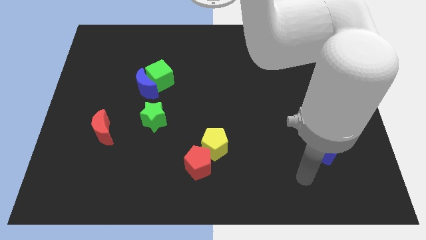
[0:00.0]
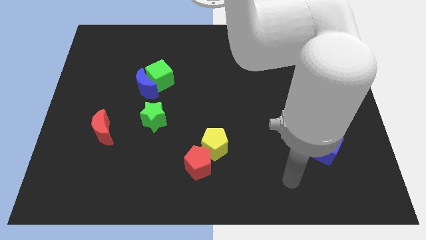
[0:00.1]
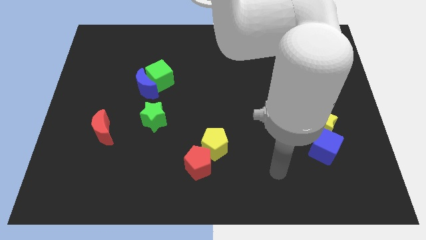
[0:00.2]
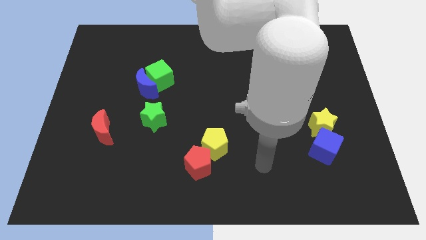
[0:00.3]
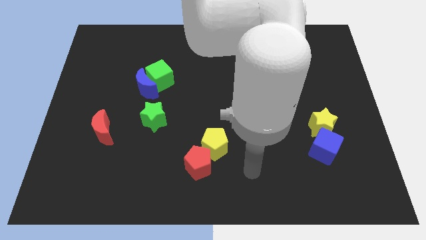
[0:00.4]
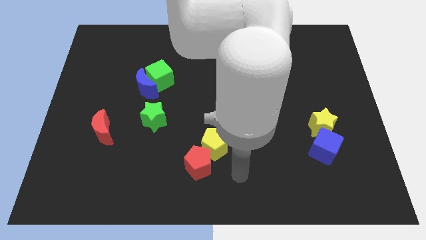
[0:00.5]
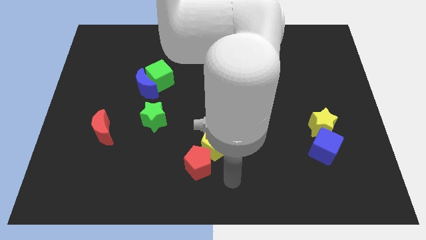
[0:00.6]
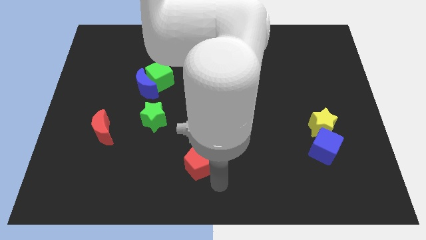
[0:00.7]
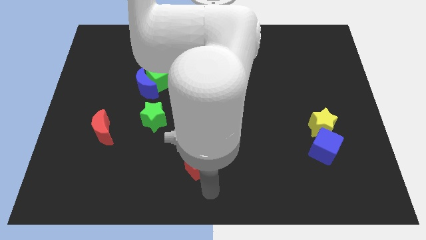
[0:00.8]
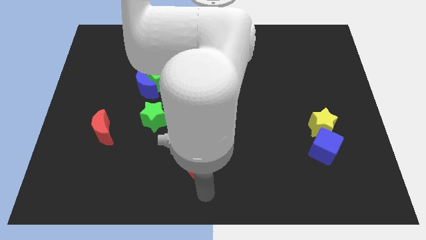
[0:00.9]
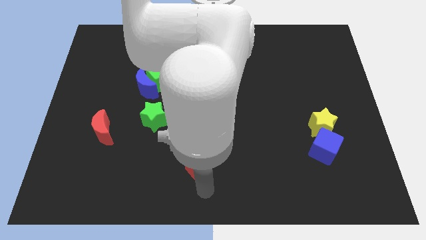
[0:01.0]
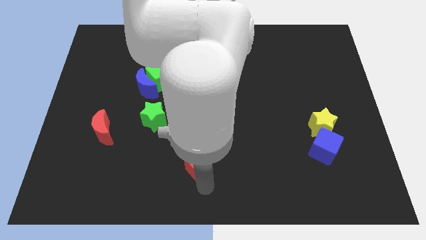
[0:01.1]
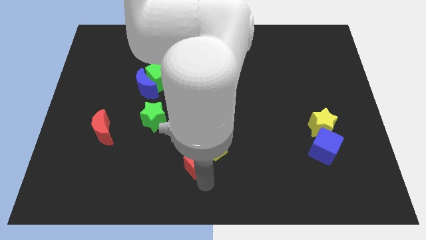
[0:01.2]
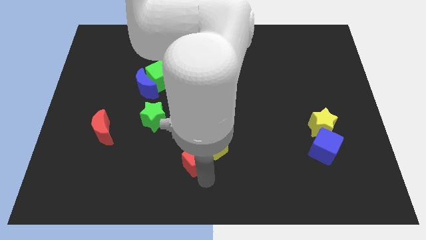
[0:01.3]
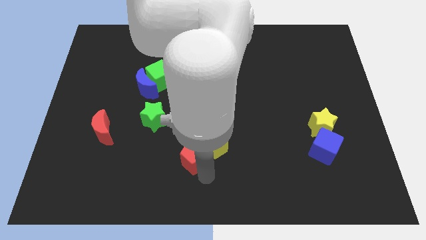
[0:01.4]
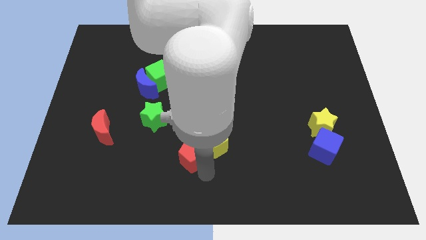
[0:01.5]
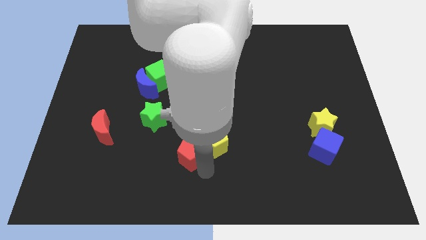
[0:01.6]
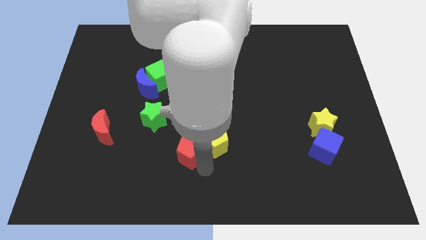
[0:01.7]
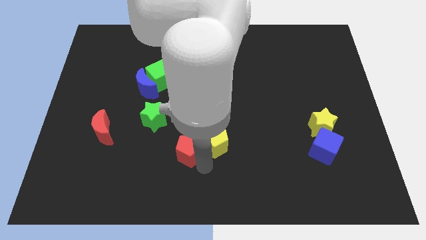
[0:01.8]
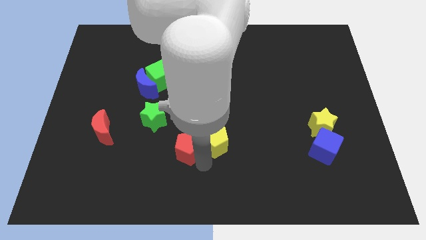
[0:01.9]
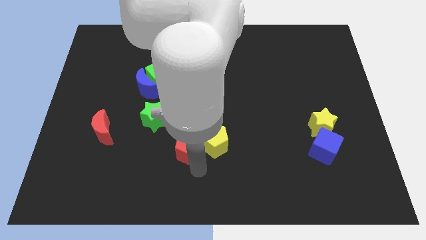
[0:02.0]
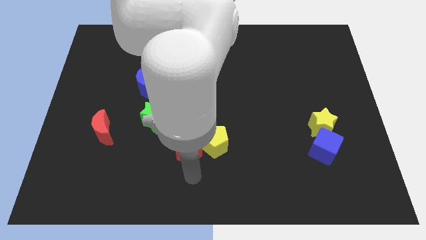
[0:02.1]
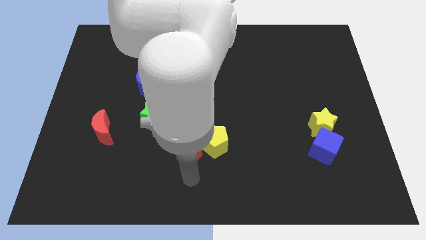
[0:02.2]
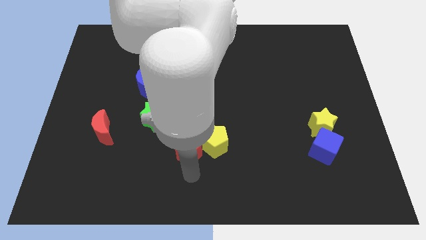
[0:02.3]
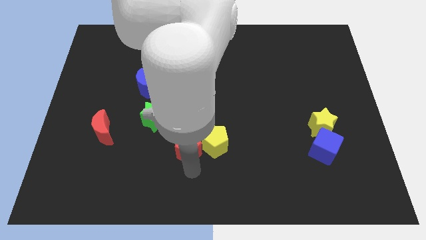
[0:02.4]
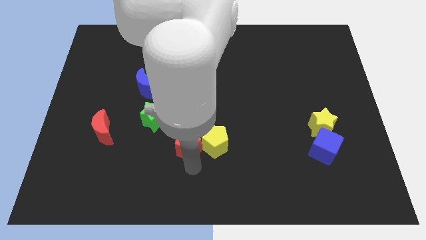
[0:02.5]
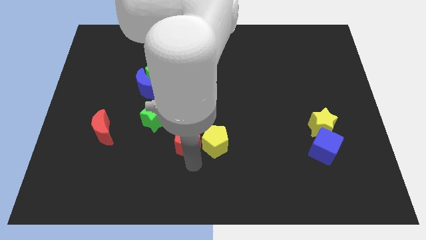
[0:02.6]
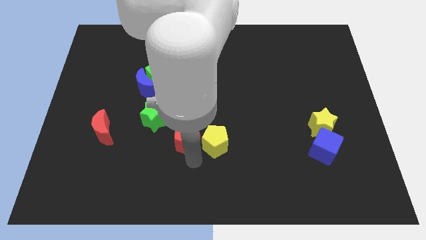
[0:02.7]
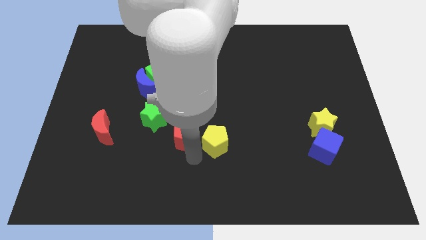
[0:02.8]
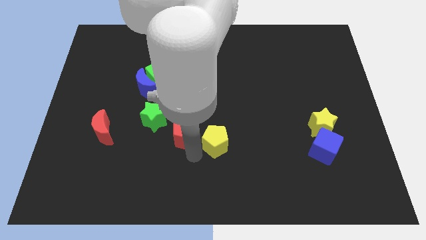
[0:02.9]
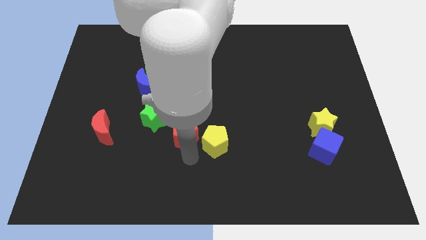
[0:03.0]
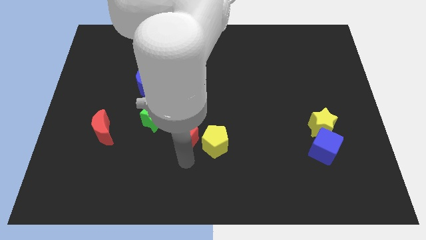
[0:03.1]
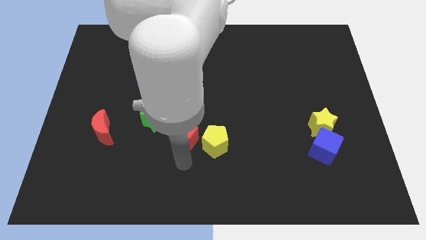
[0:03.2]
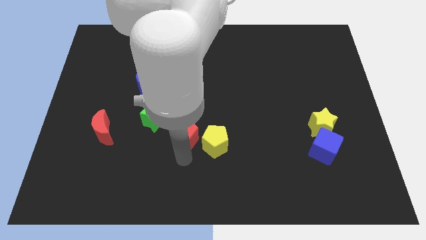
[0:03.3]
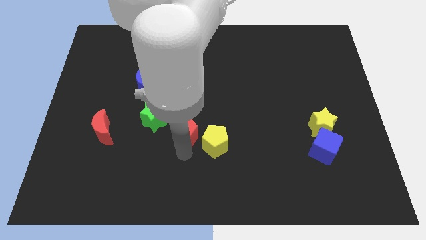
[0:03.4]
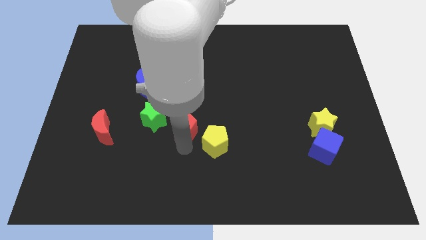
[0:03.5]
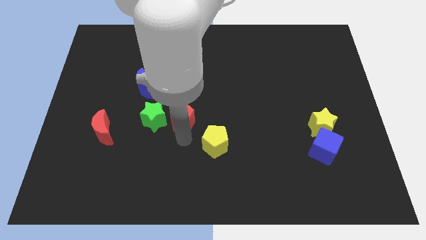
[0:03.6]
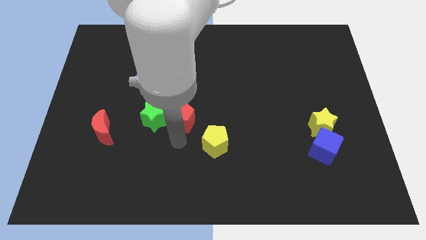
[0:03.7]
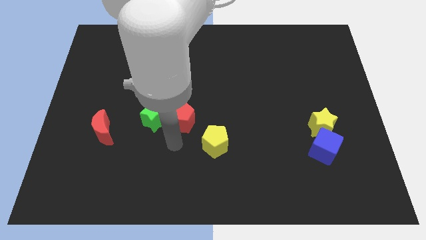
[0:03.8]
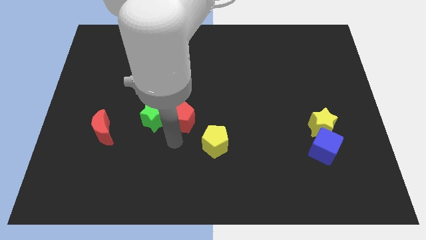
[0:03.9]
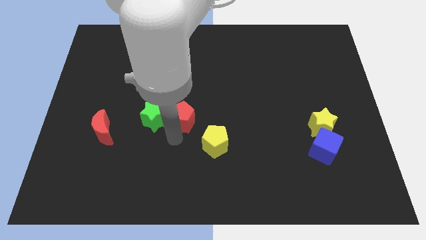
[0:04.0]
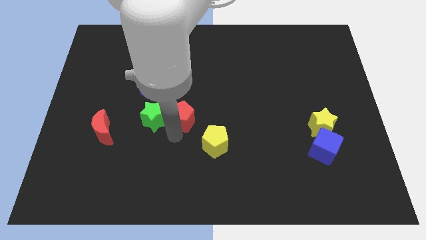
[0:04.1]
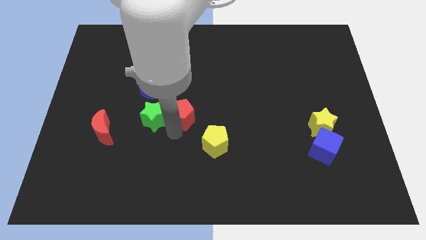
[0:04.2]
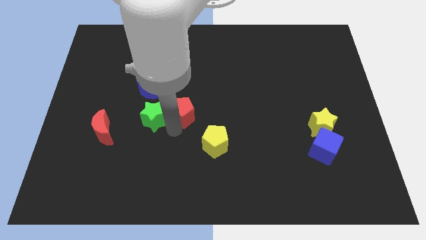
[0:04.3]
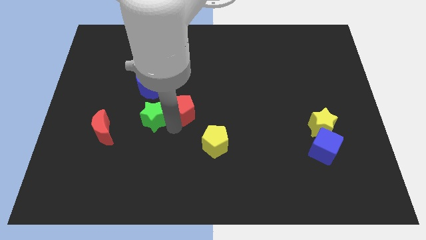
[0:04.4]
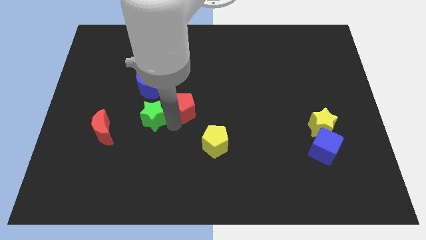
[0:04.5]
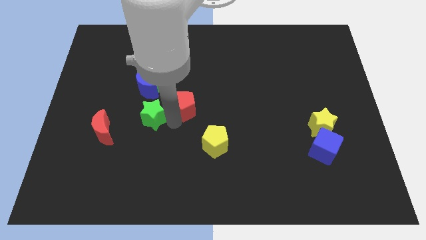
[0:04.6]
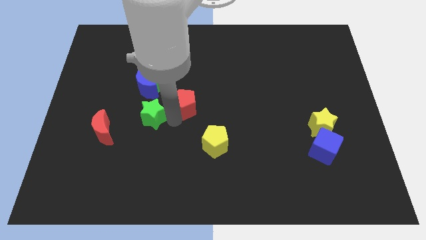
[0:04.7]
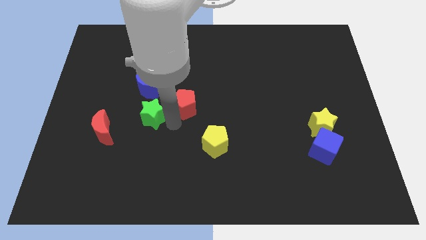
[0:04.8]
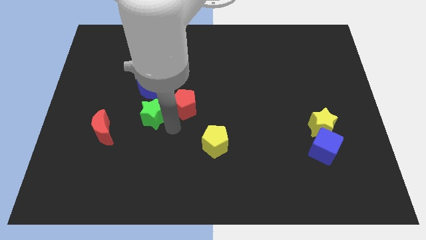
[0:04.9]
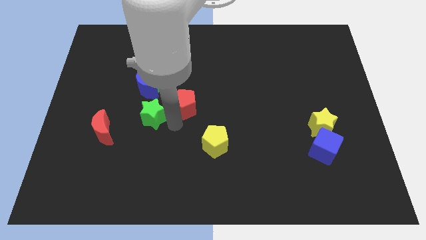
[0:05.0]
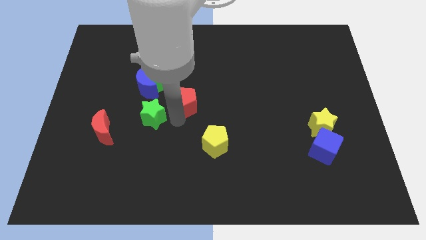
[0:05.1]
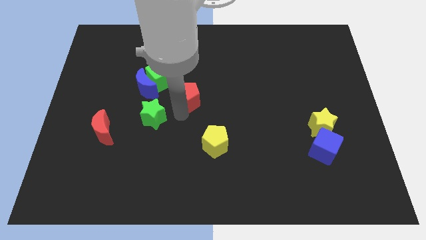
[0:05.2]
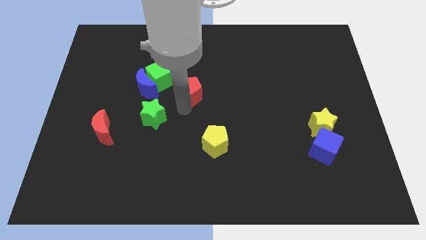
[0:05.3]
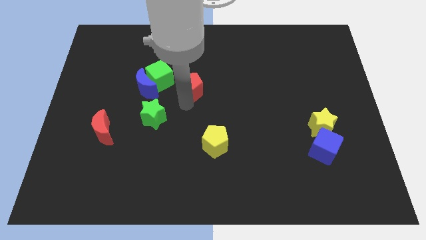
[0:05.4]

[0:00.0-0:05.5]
slide the red pentagon upwards

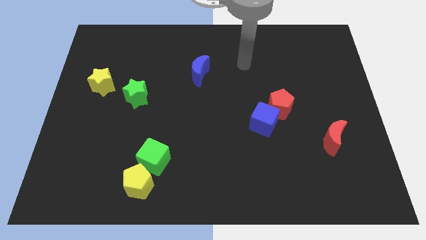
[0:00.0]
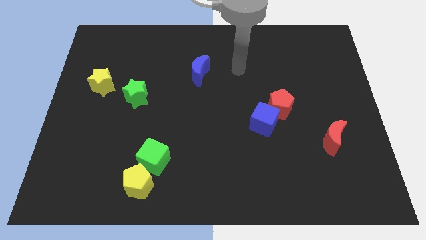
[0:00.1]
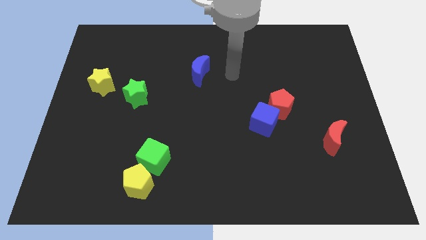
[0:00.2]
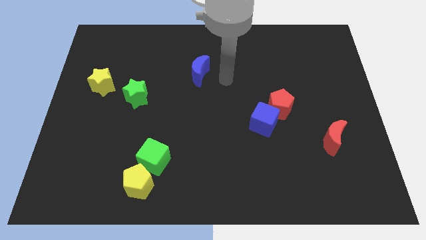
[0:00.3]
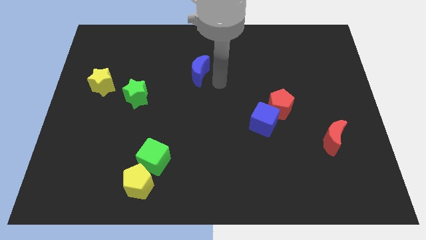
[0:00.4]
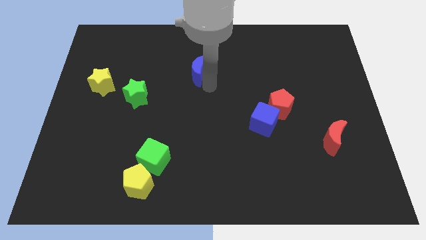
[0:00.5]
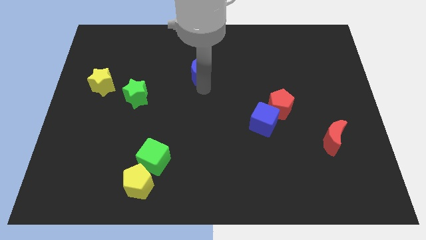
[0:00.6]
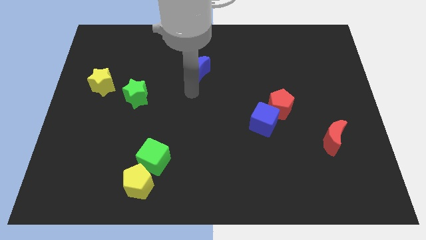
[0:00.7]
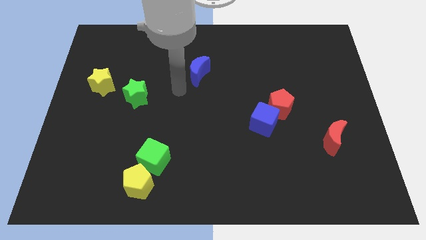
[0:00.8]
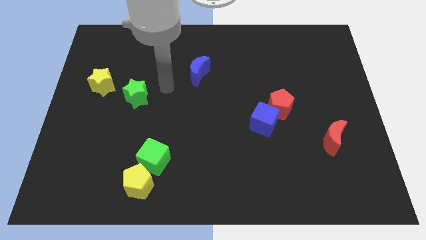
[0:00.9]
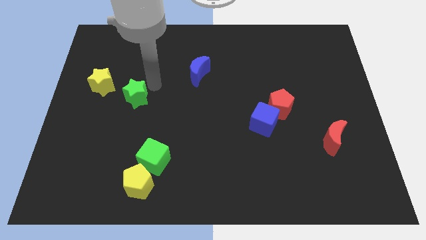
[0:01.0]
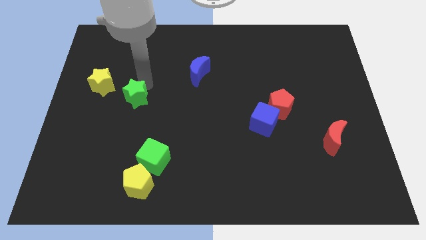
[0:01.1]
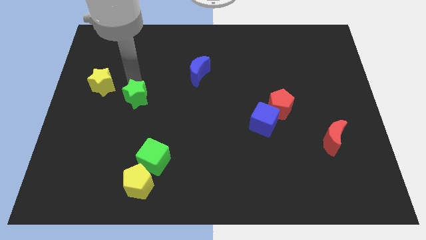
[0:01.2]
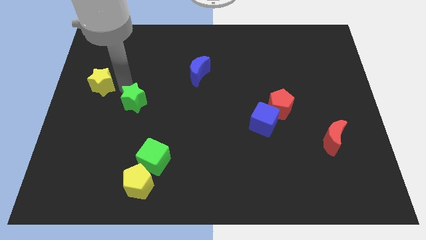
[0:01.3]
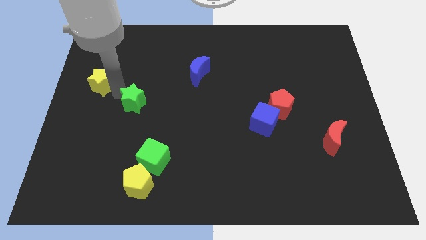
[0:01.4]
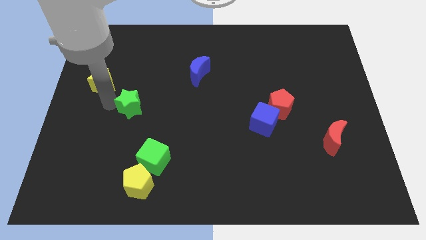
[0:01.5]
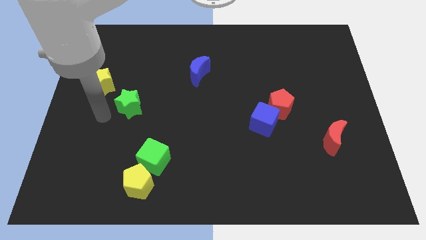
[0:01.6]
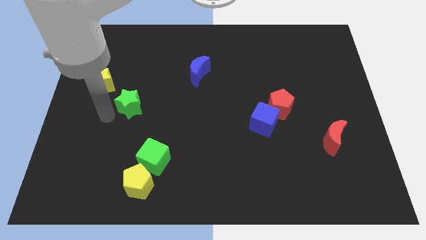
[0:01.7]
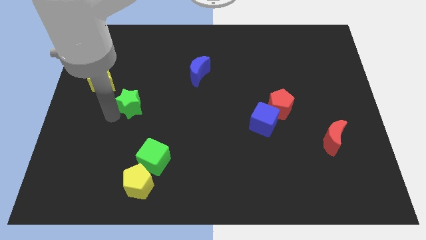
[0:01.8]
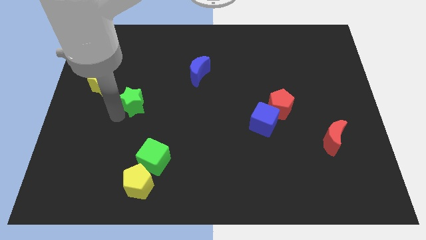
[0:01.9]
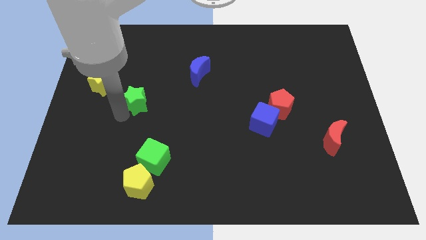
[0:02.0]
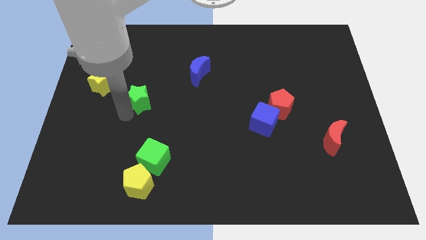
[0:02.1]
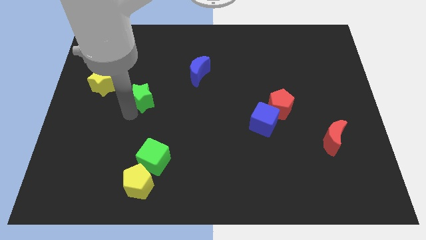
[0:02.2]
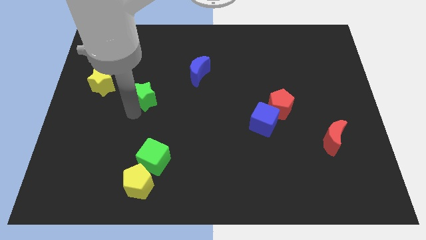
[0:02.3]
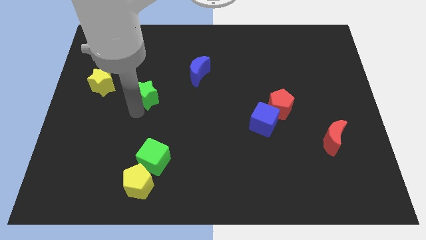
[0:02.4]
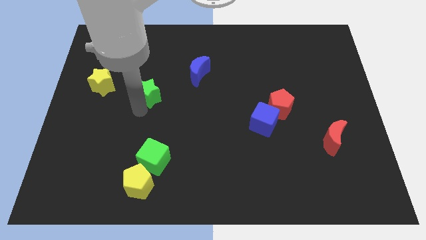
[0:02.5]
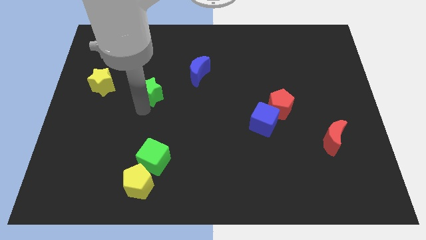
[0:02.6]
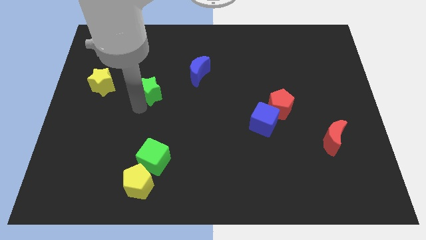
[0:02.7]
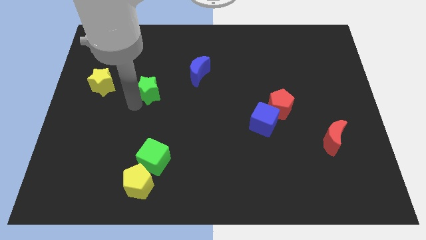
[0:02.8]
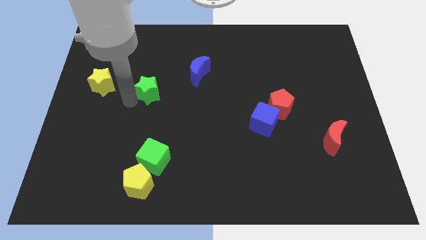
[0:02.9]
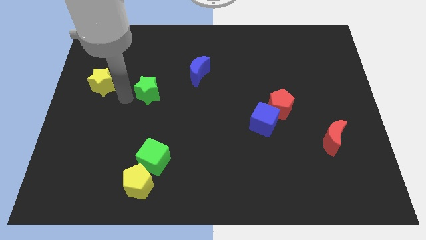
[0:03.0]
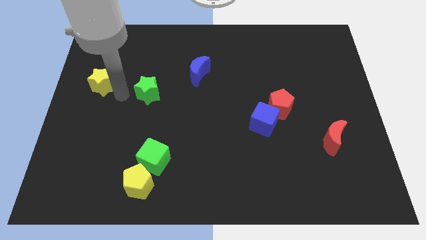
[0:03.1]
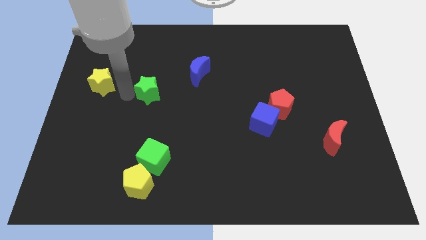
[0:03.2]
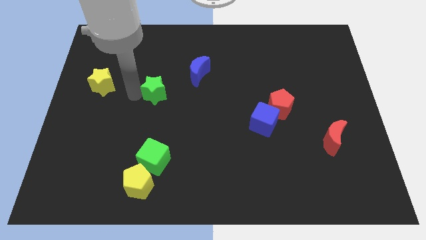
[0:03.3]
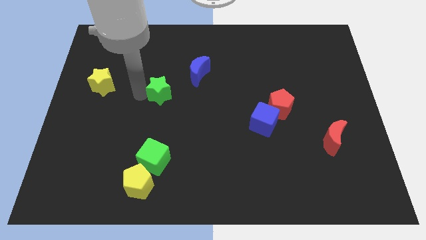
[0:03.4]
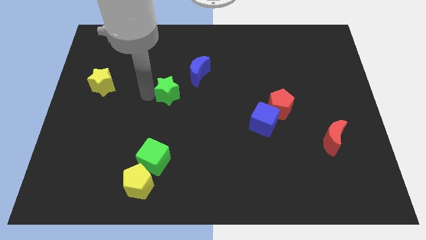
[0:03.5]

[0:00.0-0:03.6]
slide the green star somewhat to the right
